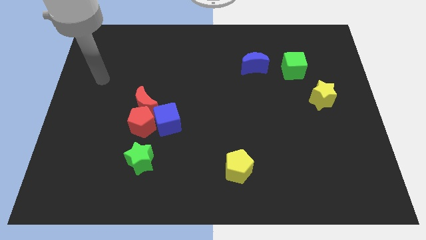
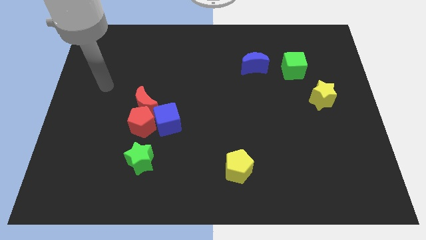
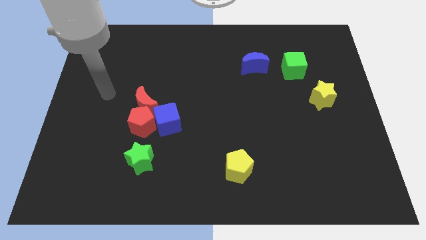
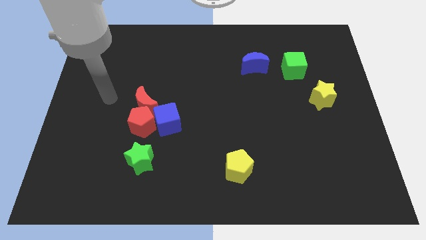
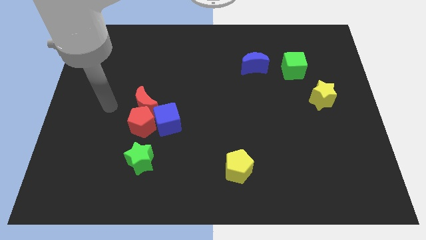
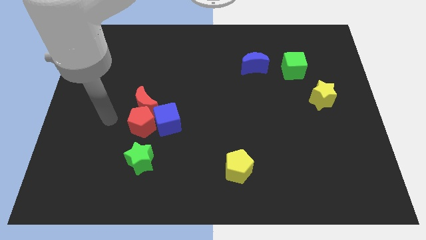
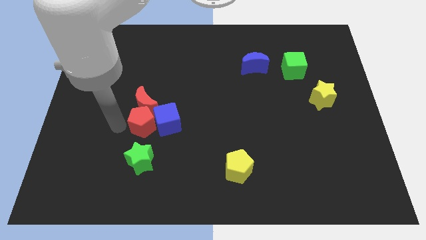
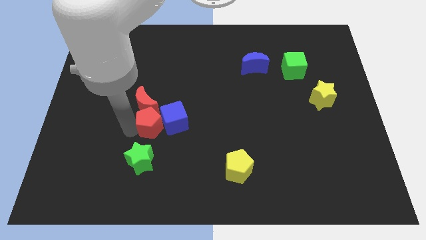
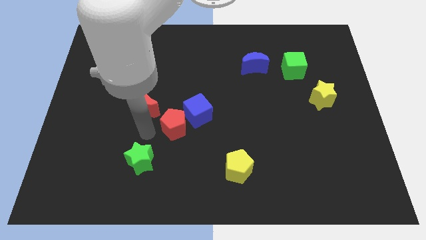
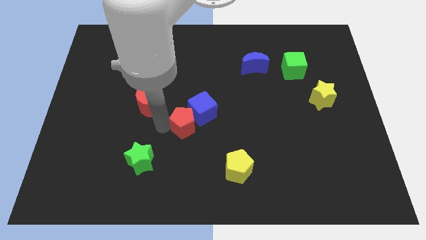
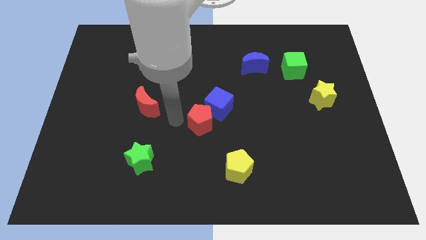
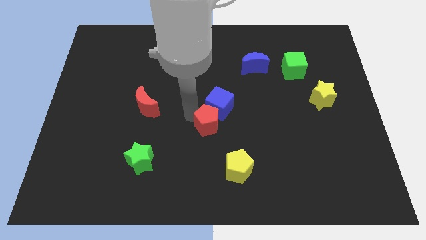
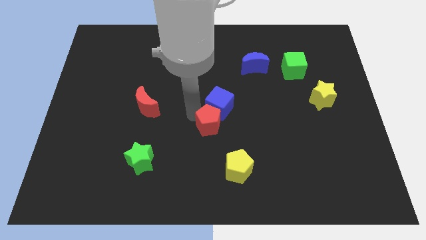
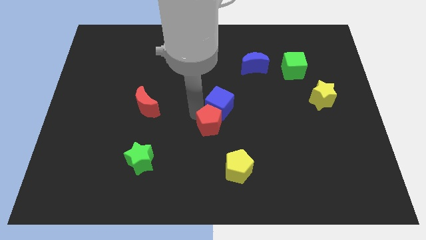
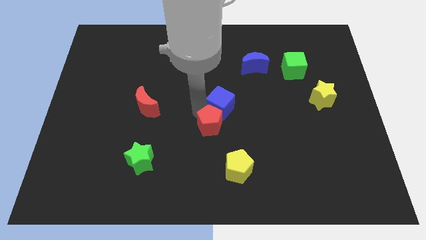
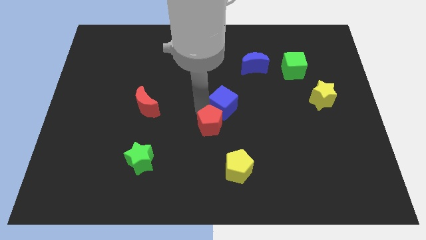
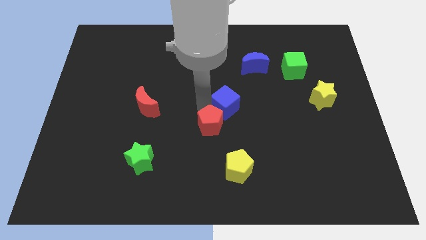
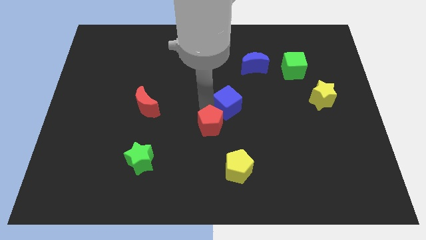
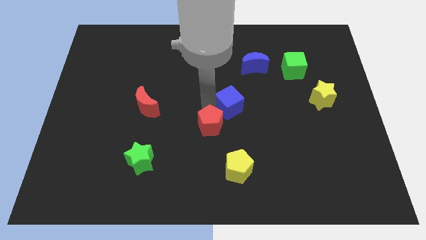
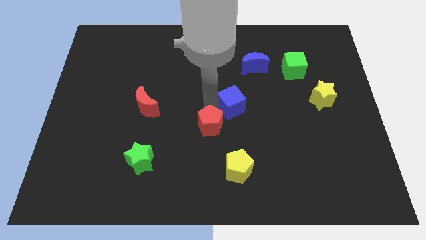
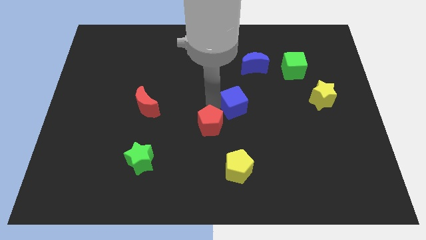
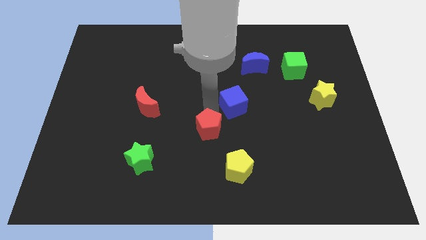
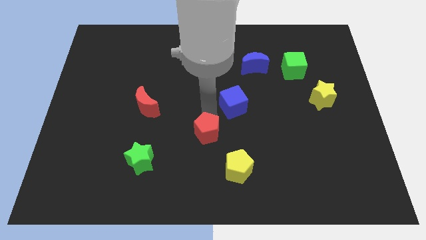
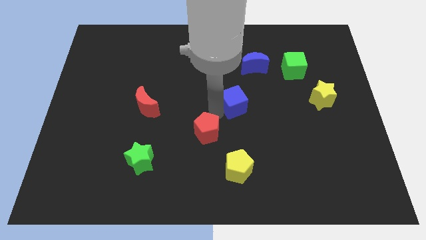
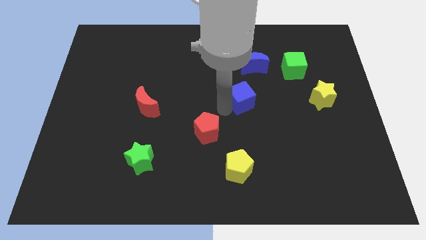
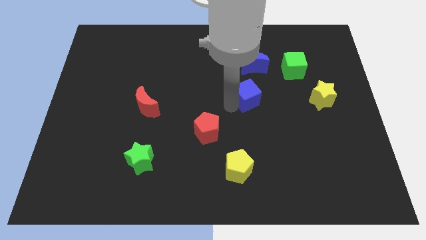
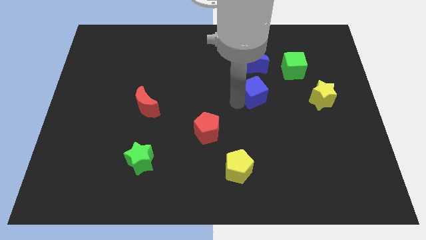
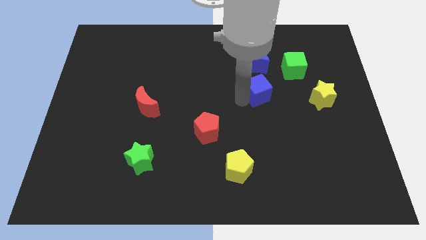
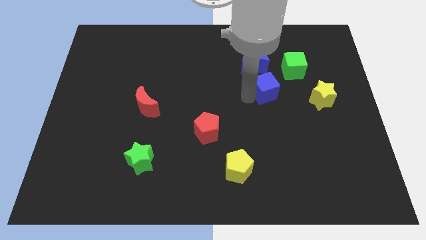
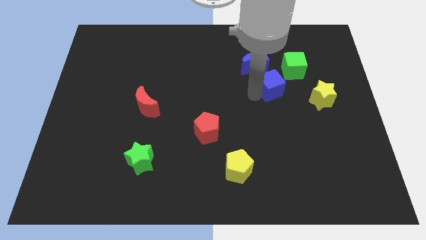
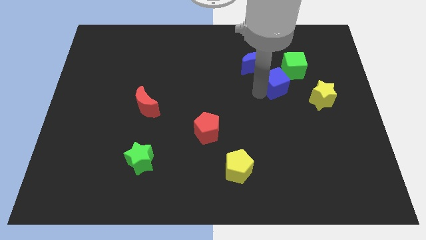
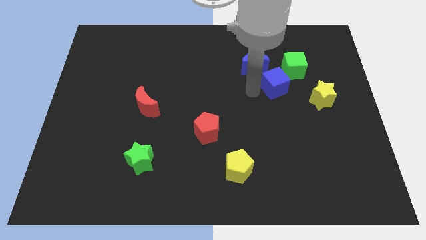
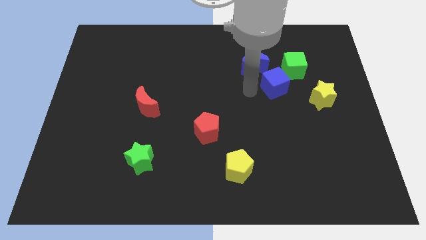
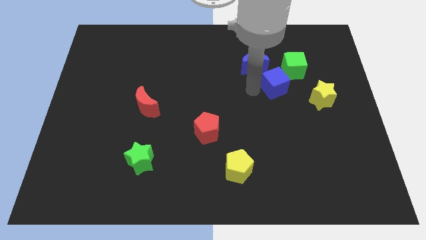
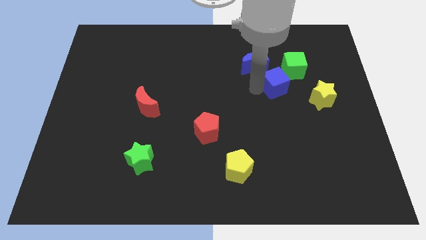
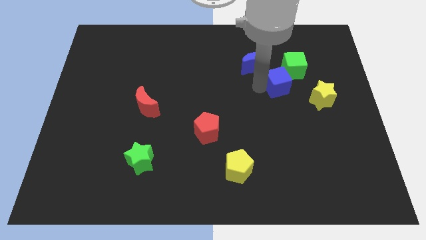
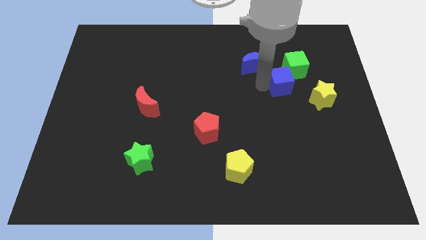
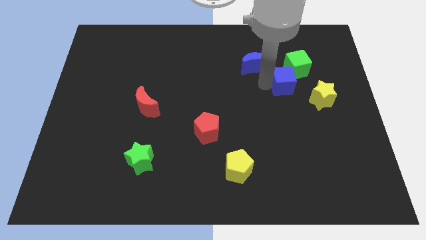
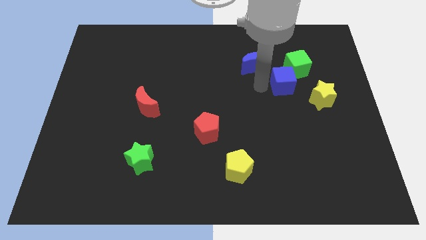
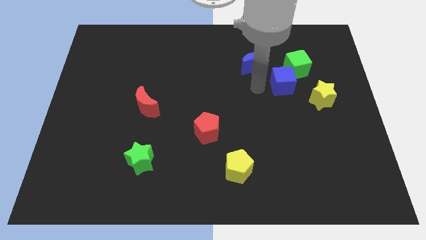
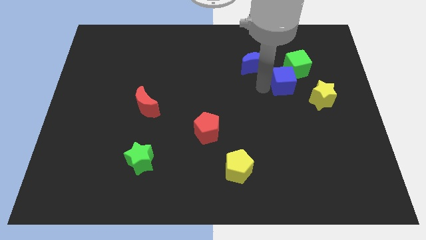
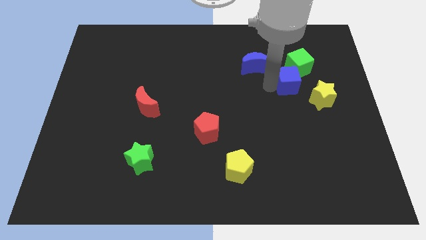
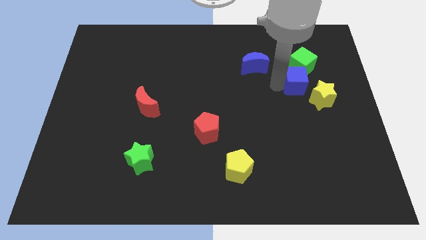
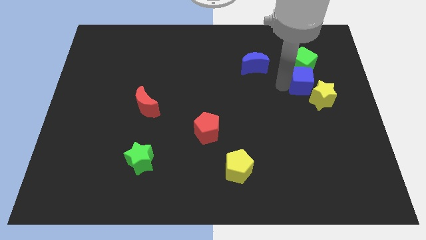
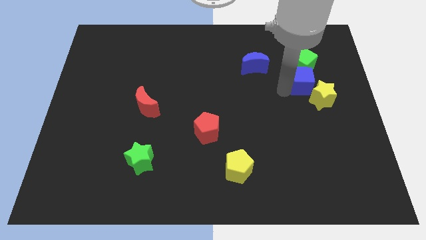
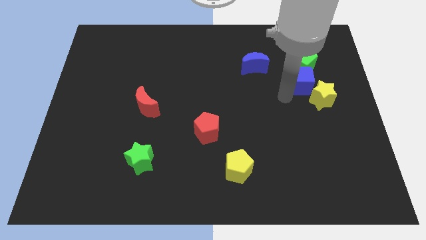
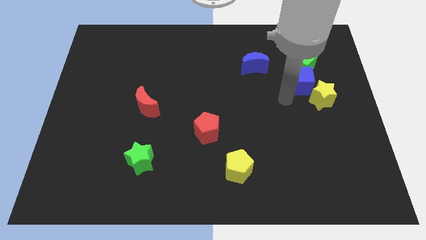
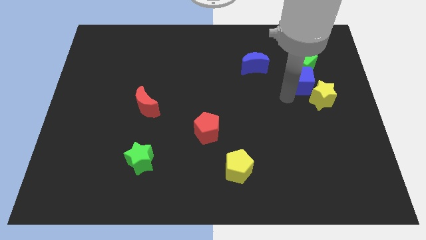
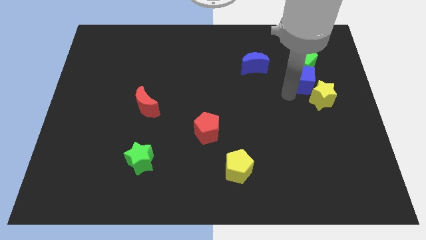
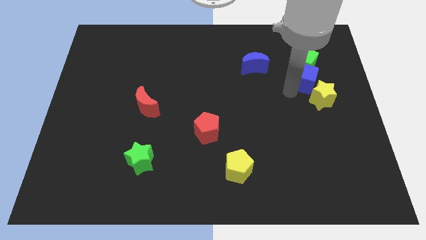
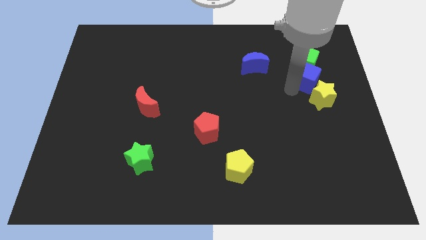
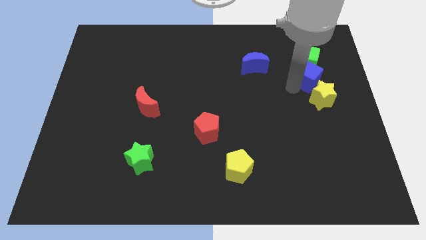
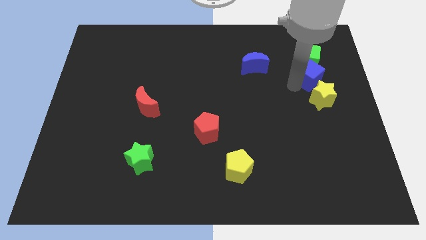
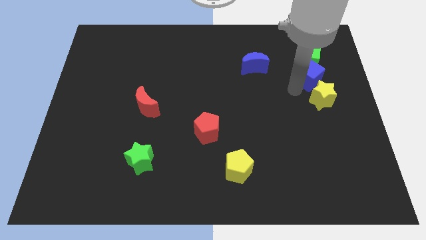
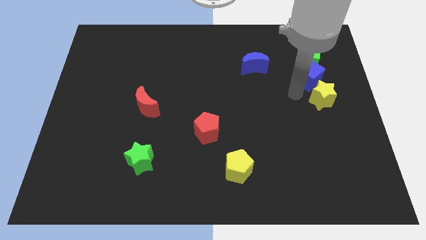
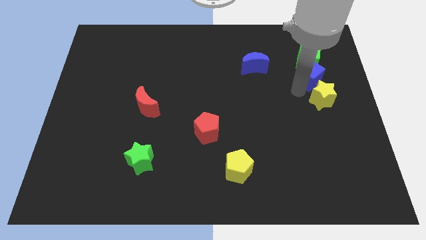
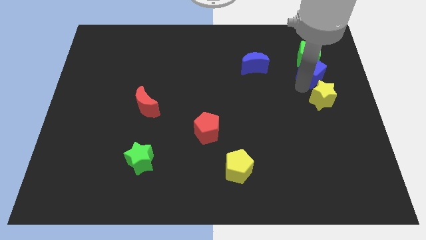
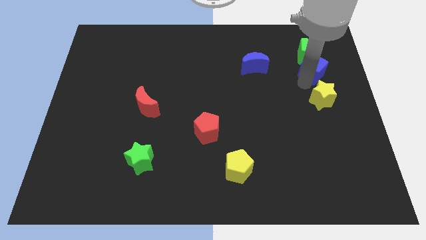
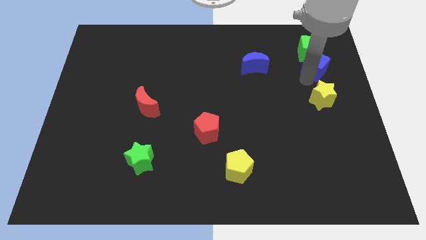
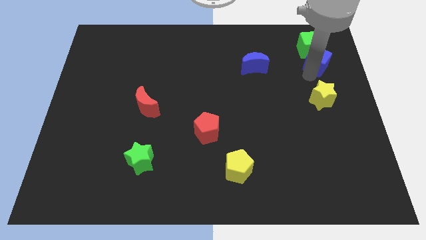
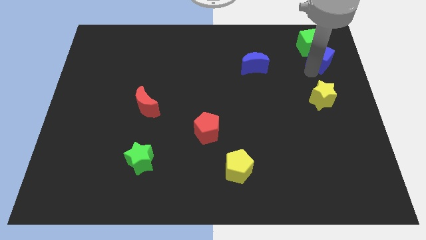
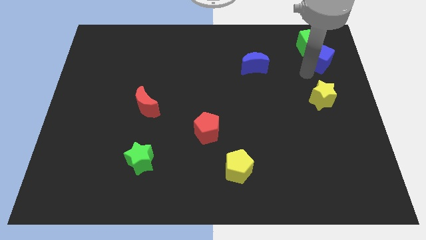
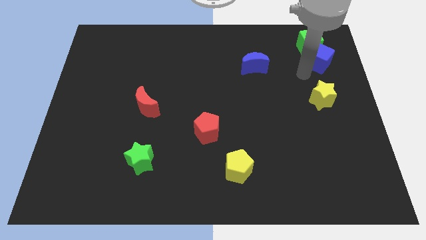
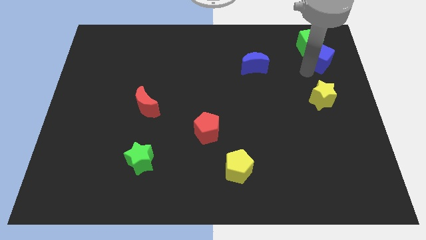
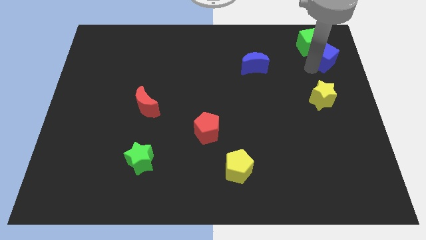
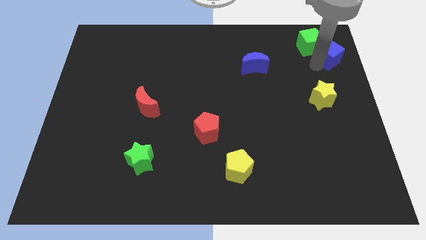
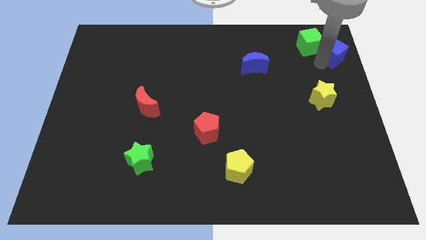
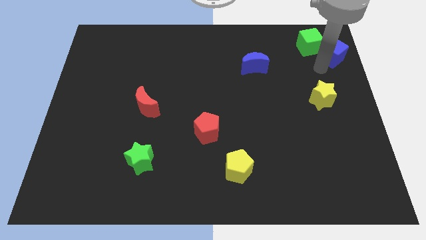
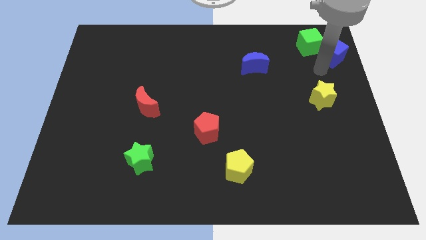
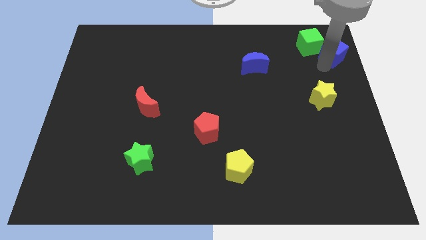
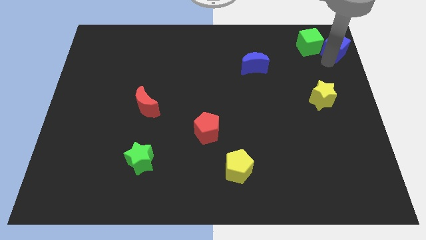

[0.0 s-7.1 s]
move the blue cube to the upper right corner
